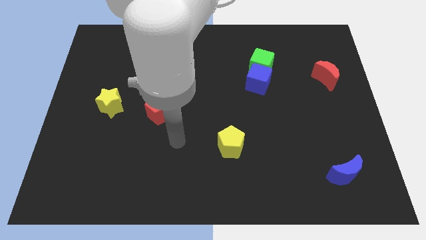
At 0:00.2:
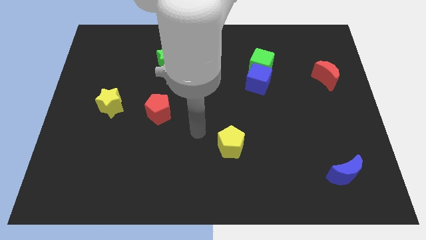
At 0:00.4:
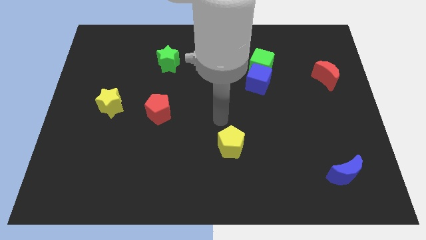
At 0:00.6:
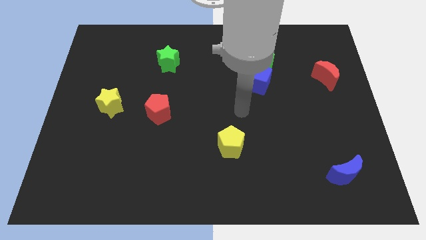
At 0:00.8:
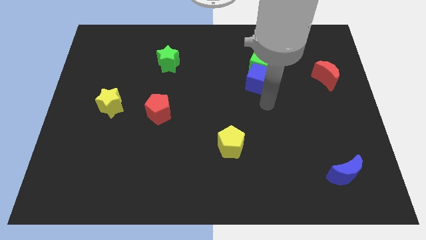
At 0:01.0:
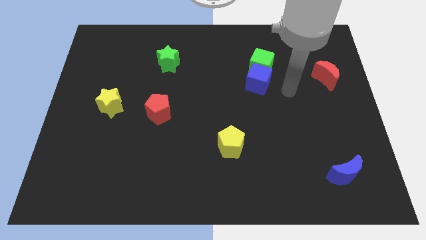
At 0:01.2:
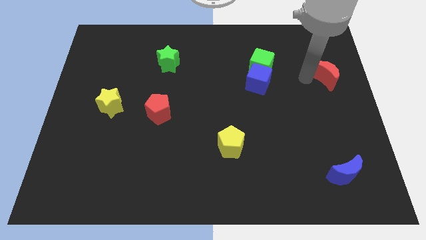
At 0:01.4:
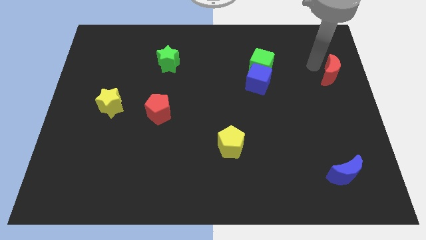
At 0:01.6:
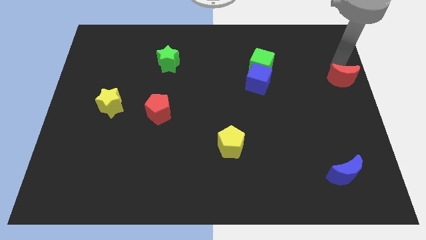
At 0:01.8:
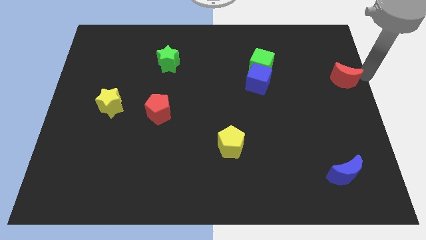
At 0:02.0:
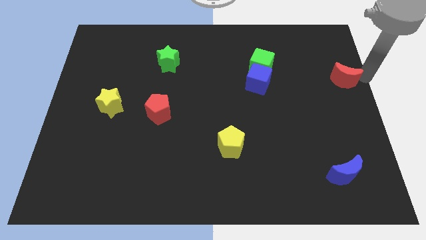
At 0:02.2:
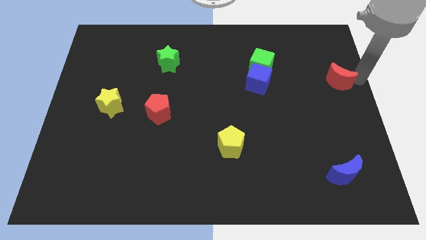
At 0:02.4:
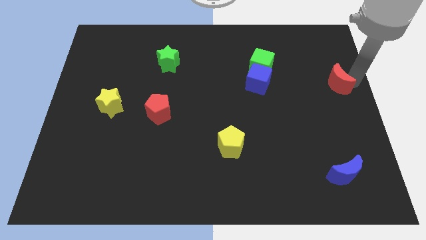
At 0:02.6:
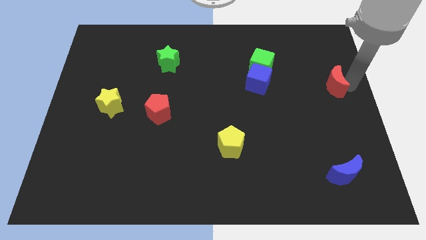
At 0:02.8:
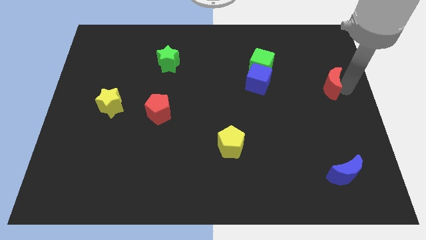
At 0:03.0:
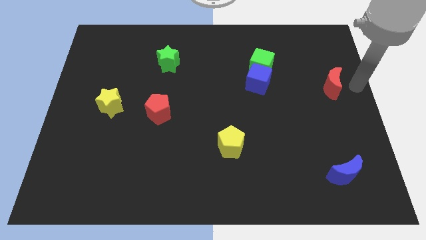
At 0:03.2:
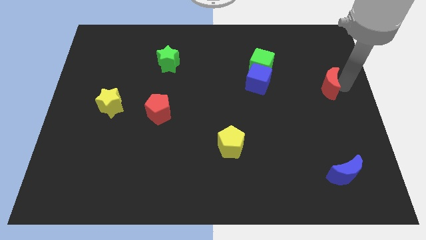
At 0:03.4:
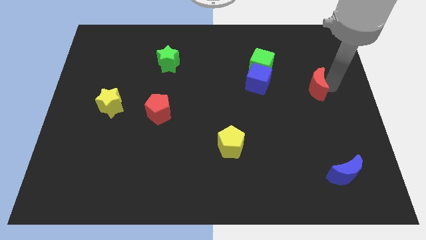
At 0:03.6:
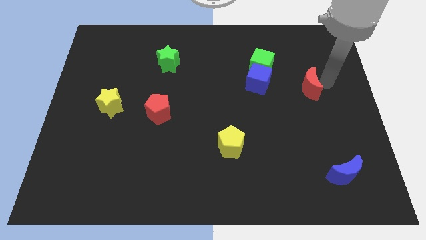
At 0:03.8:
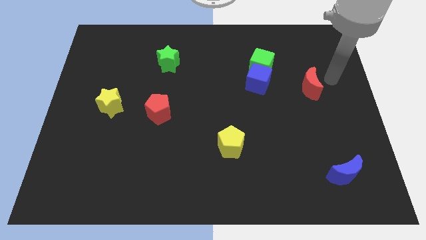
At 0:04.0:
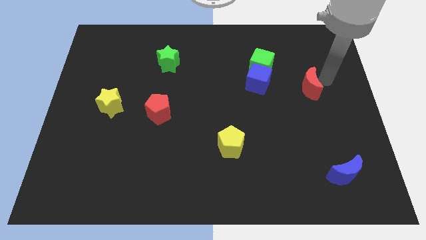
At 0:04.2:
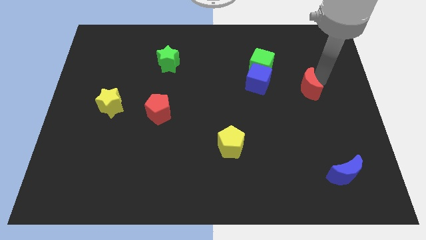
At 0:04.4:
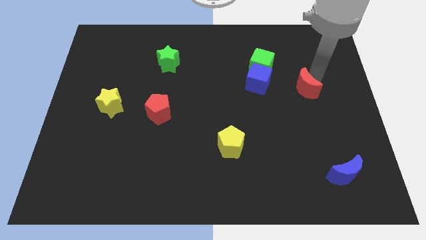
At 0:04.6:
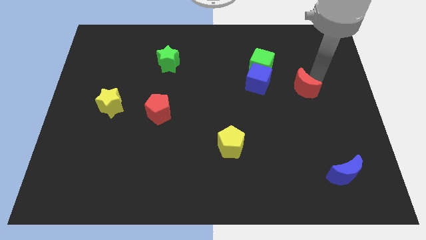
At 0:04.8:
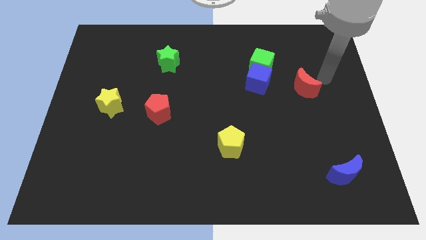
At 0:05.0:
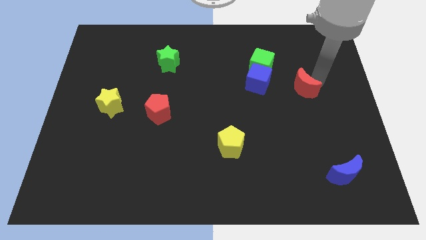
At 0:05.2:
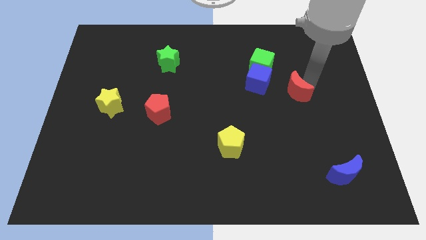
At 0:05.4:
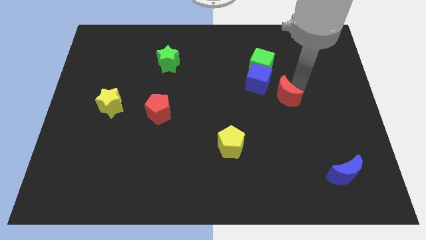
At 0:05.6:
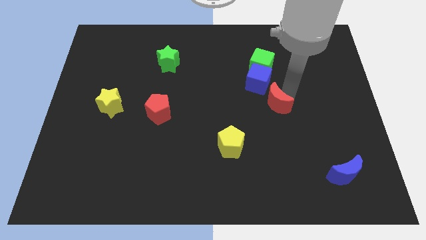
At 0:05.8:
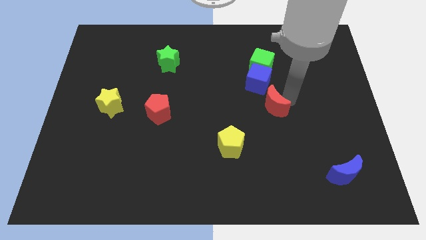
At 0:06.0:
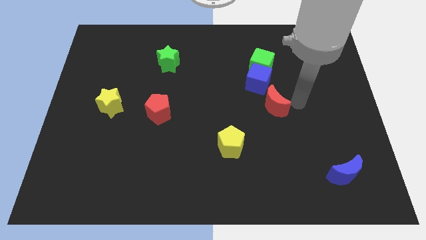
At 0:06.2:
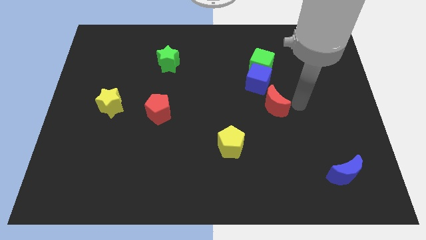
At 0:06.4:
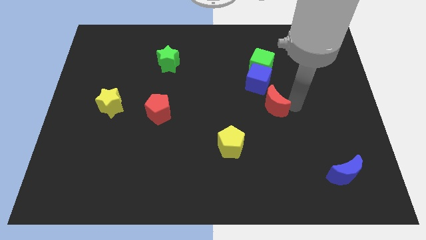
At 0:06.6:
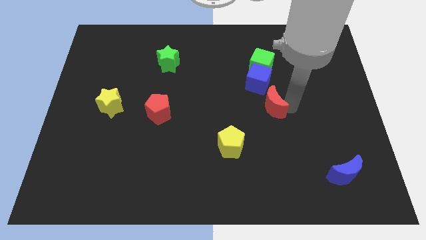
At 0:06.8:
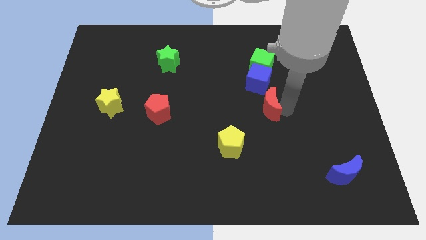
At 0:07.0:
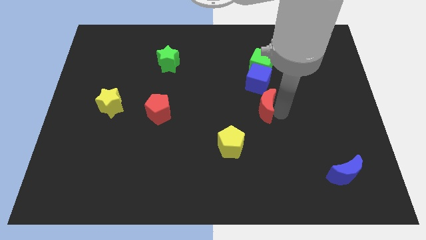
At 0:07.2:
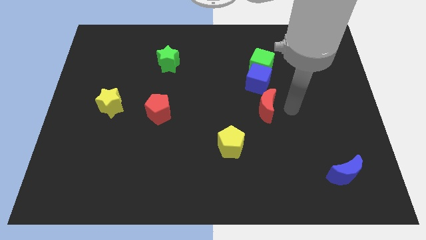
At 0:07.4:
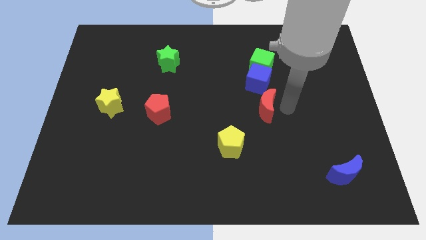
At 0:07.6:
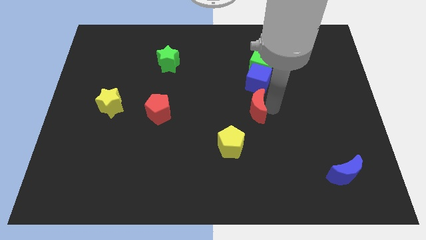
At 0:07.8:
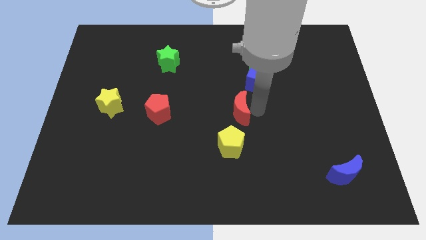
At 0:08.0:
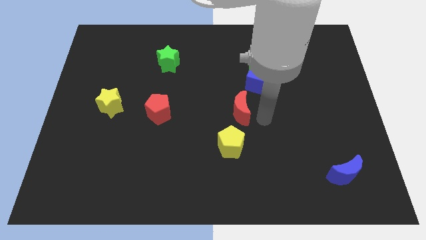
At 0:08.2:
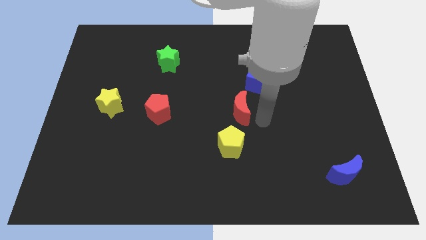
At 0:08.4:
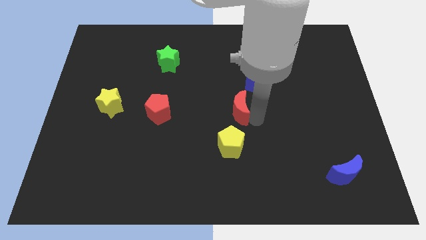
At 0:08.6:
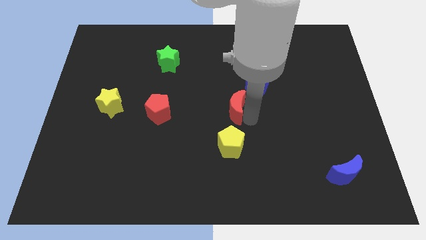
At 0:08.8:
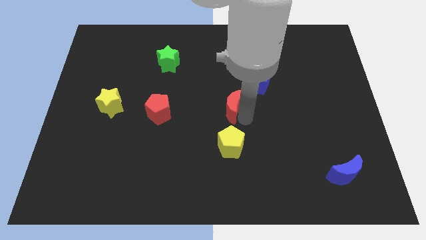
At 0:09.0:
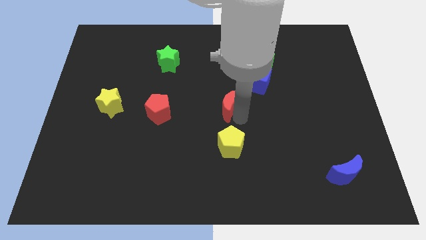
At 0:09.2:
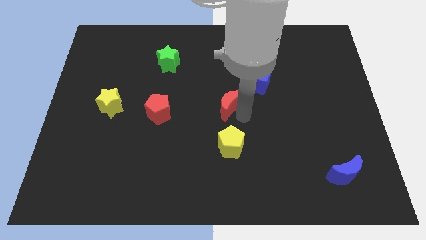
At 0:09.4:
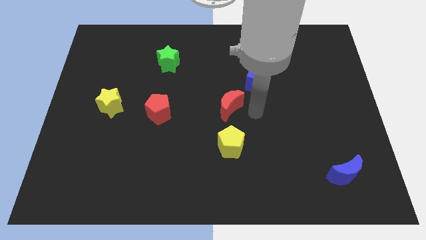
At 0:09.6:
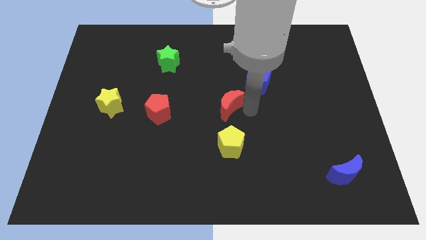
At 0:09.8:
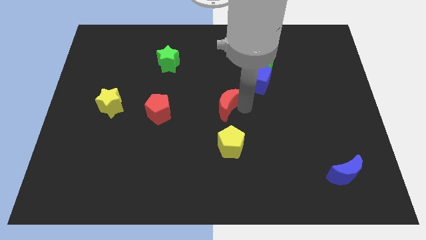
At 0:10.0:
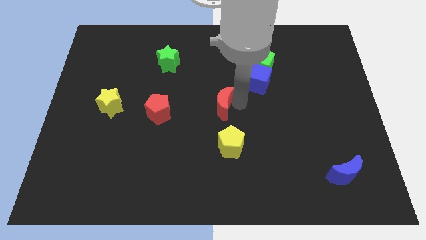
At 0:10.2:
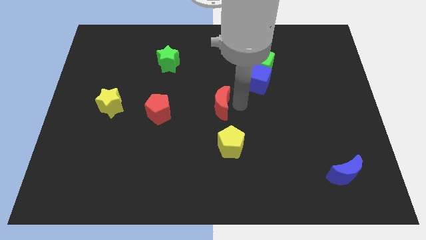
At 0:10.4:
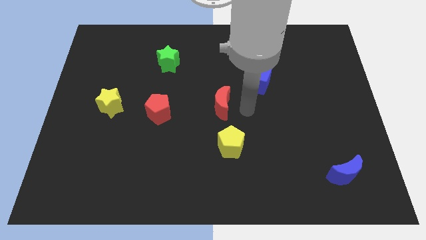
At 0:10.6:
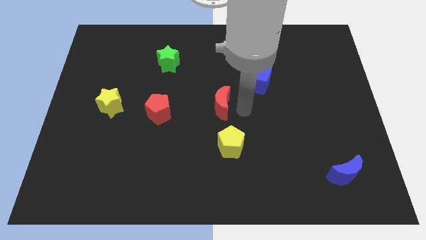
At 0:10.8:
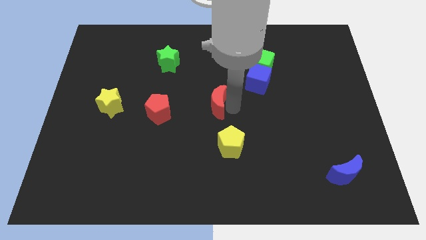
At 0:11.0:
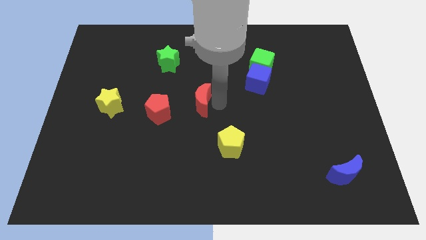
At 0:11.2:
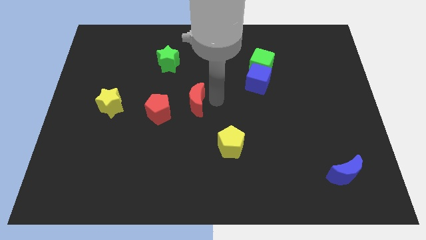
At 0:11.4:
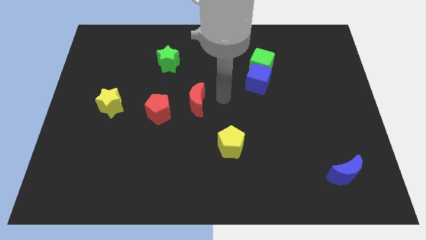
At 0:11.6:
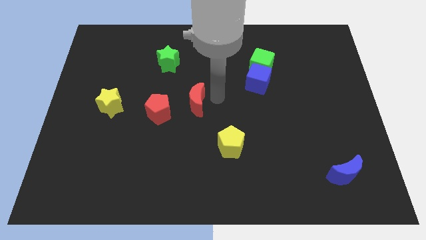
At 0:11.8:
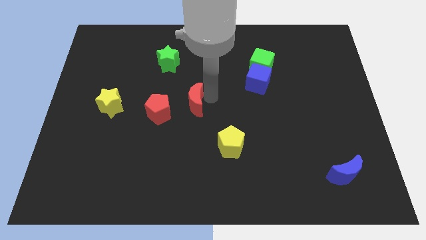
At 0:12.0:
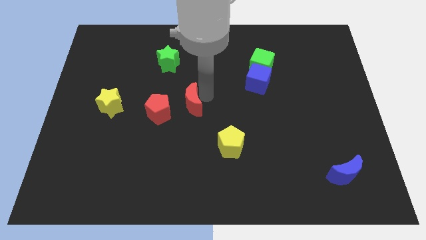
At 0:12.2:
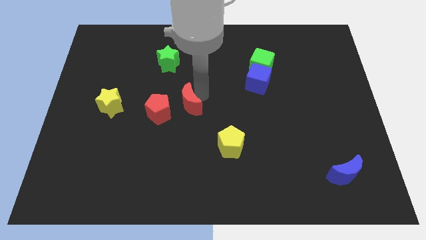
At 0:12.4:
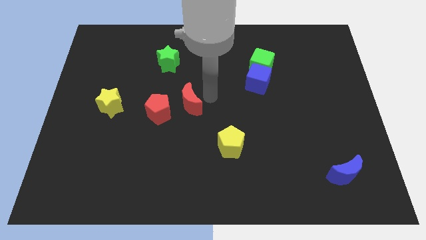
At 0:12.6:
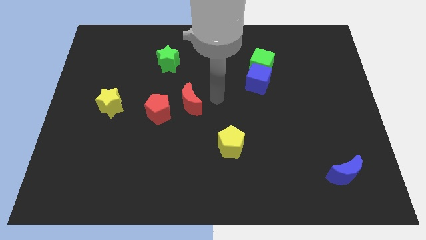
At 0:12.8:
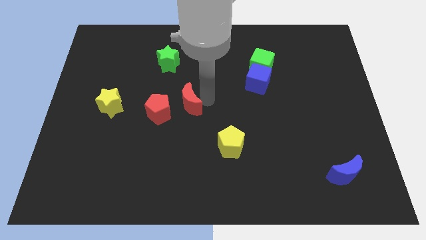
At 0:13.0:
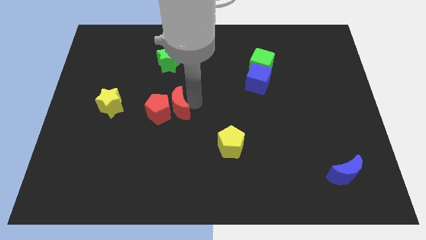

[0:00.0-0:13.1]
slide the red moon towards the red pentagon

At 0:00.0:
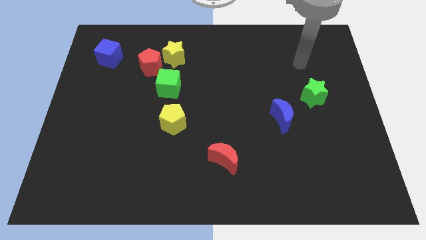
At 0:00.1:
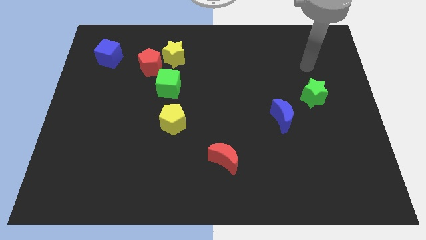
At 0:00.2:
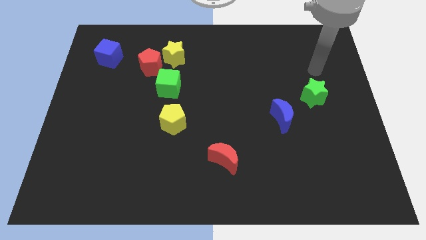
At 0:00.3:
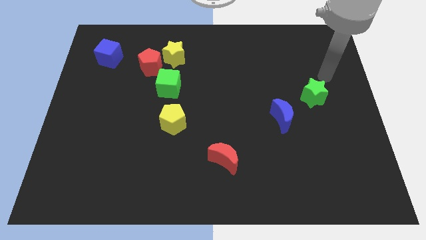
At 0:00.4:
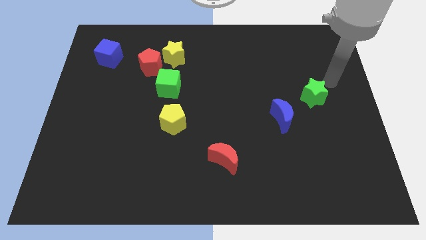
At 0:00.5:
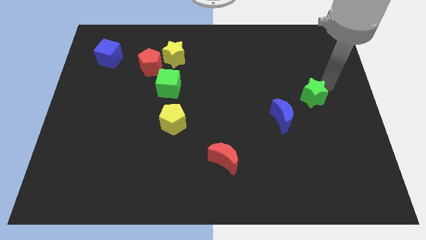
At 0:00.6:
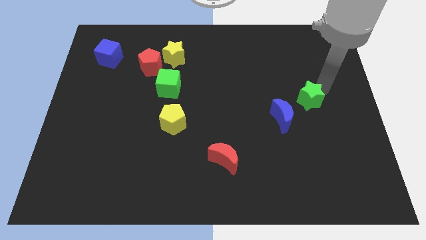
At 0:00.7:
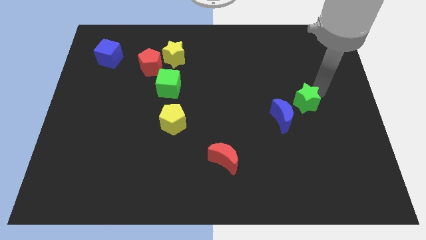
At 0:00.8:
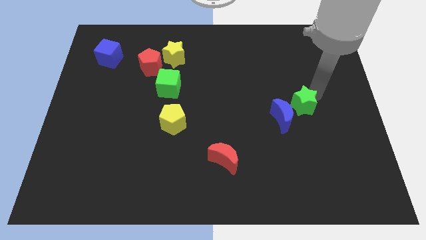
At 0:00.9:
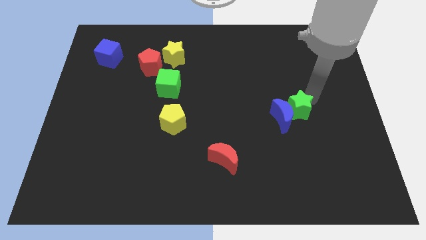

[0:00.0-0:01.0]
slide the green star close to the blue moon
